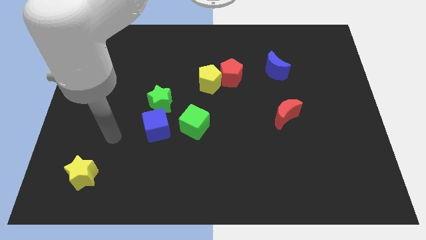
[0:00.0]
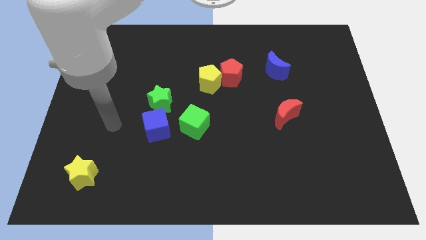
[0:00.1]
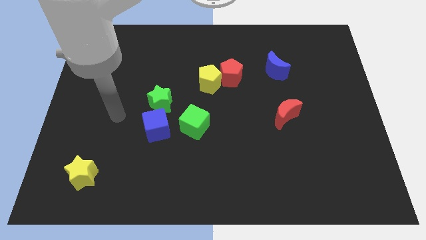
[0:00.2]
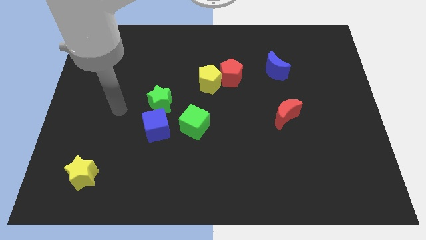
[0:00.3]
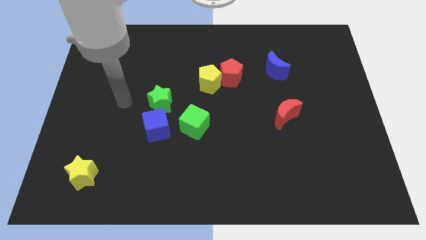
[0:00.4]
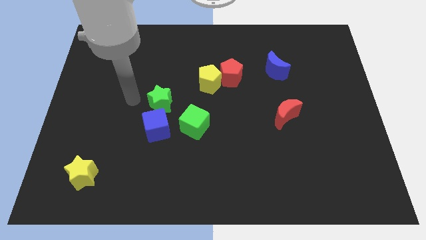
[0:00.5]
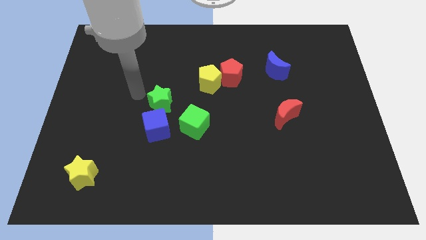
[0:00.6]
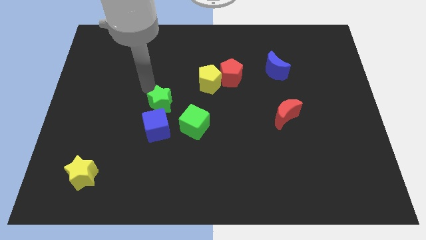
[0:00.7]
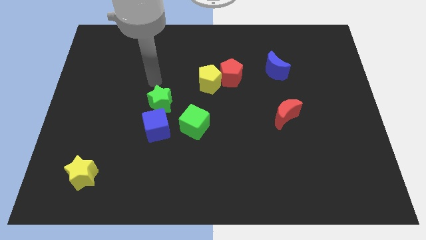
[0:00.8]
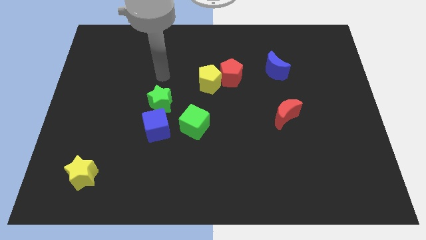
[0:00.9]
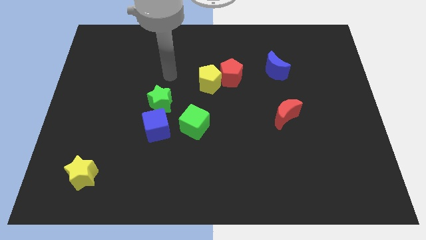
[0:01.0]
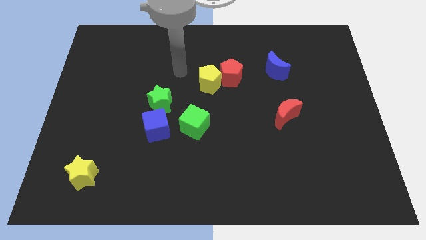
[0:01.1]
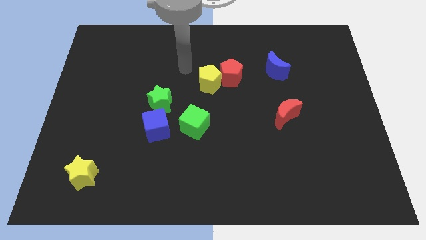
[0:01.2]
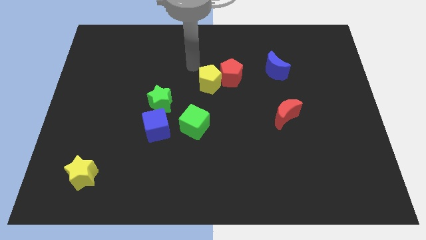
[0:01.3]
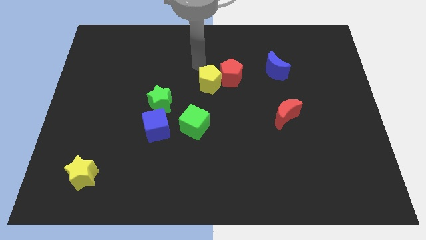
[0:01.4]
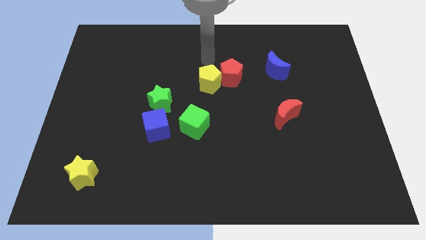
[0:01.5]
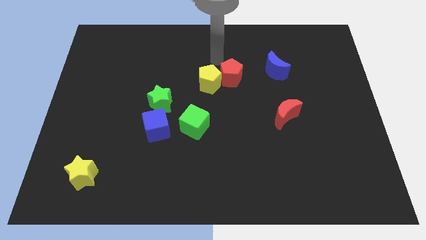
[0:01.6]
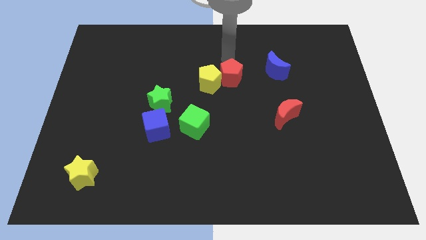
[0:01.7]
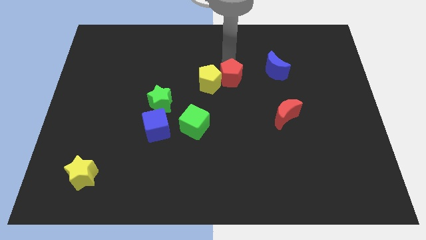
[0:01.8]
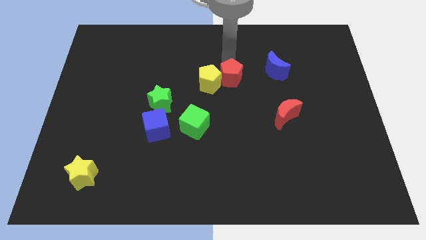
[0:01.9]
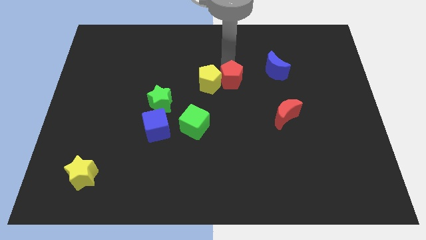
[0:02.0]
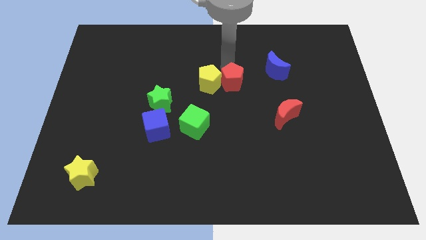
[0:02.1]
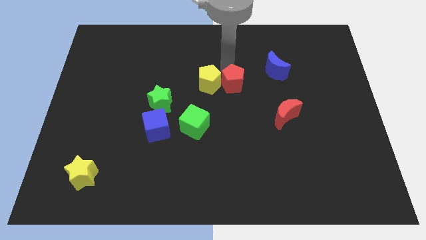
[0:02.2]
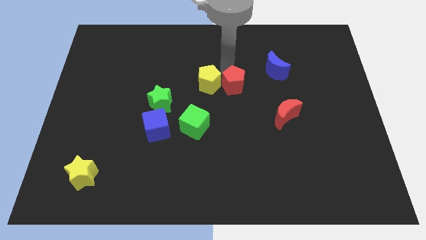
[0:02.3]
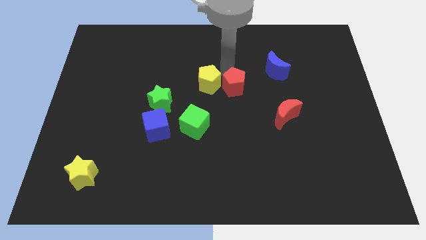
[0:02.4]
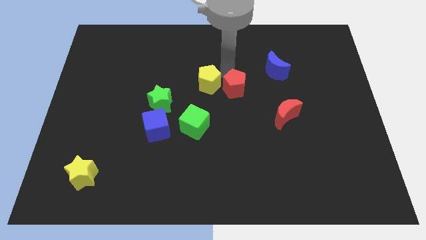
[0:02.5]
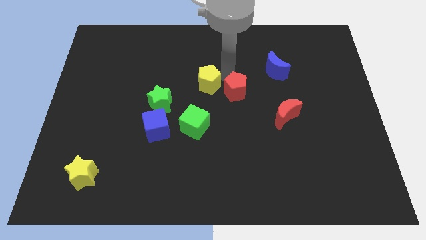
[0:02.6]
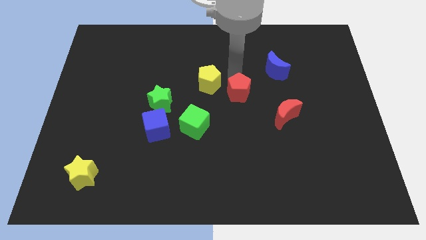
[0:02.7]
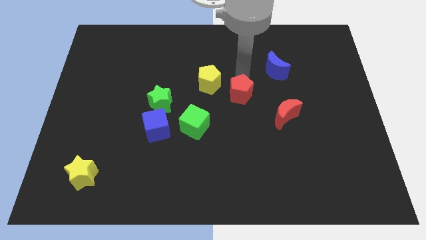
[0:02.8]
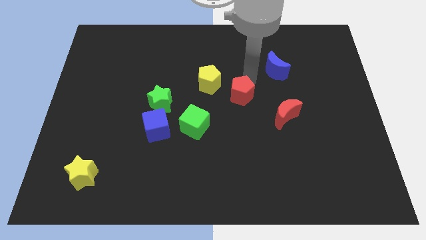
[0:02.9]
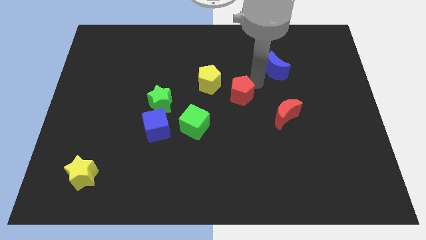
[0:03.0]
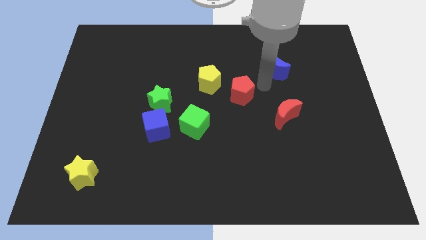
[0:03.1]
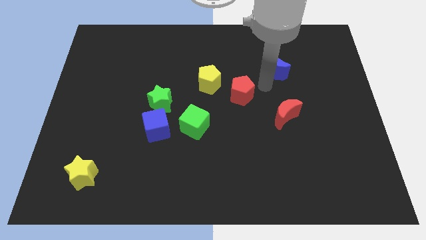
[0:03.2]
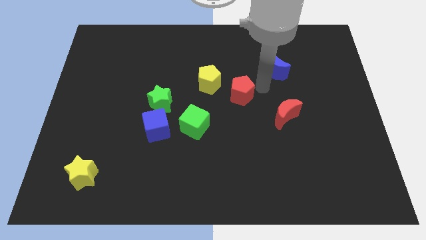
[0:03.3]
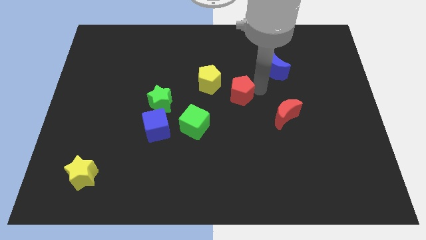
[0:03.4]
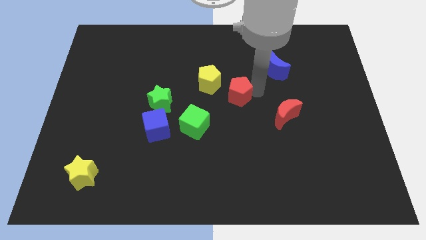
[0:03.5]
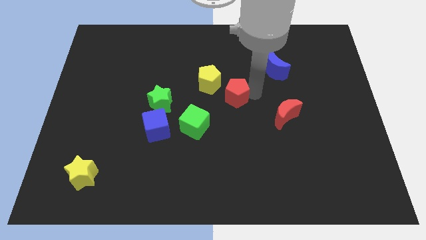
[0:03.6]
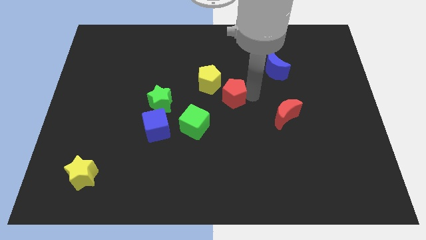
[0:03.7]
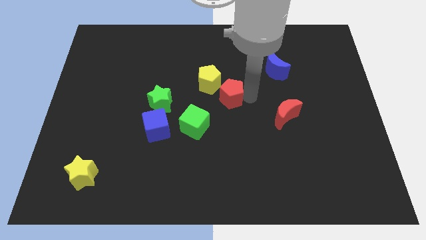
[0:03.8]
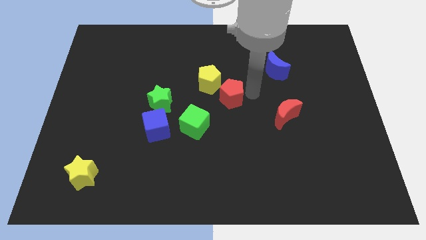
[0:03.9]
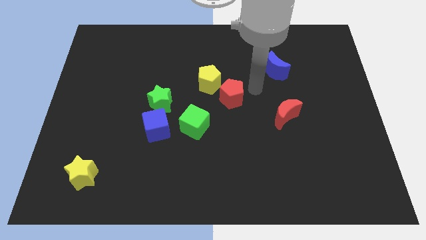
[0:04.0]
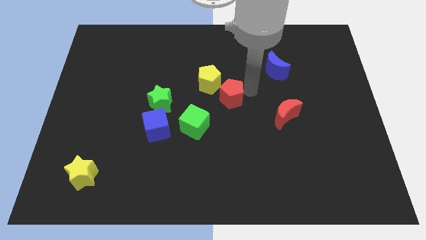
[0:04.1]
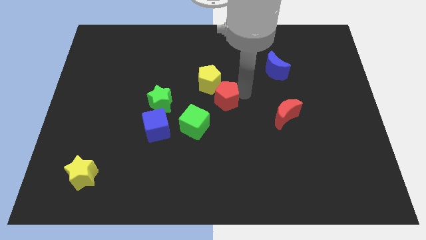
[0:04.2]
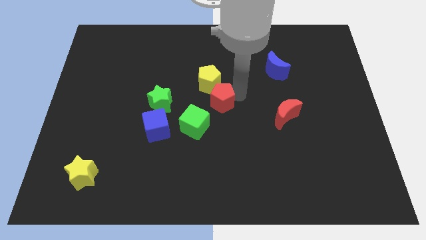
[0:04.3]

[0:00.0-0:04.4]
slide the red pentagon diagonally down and to the left a bit

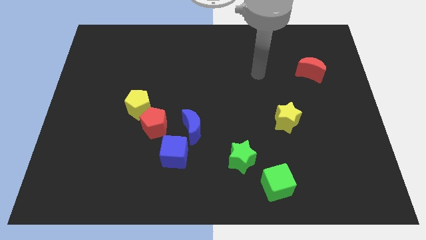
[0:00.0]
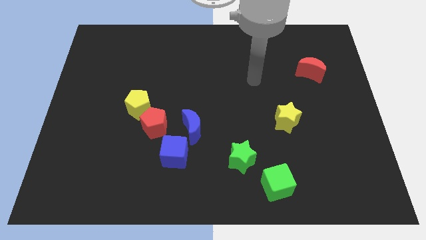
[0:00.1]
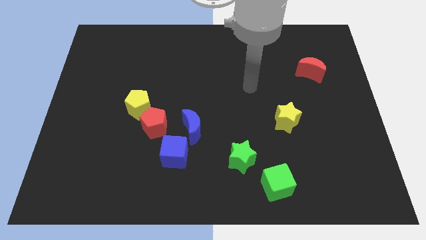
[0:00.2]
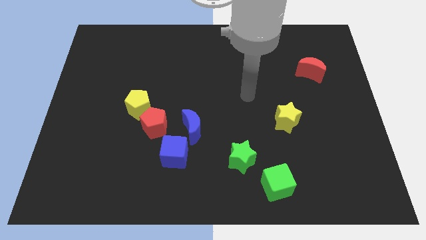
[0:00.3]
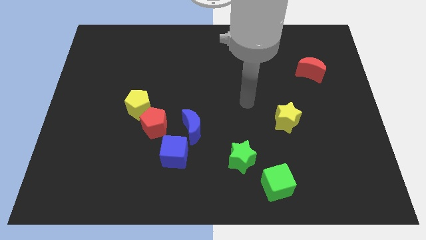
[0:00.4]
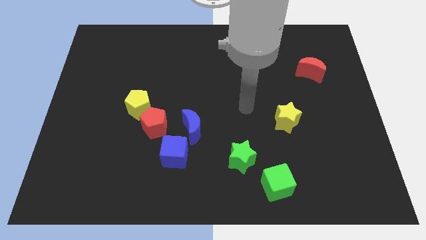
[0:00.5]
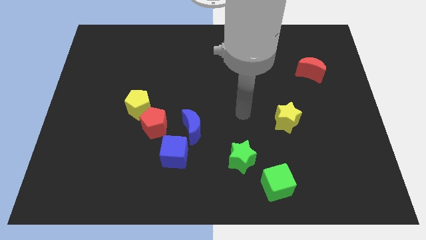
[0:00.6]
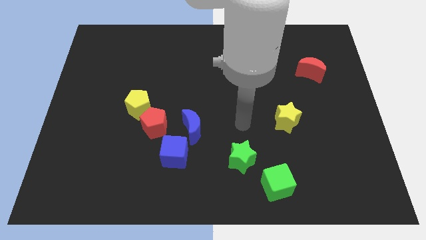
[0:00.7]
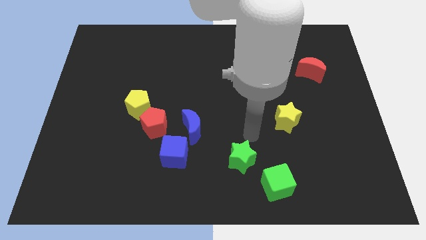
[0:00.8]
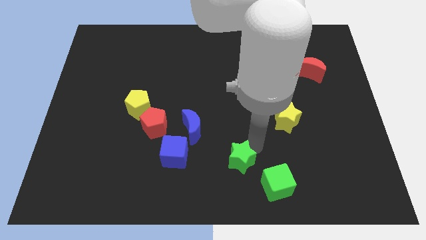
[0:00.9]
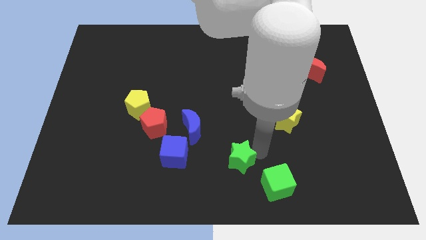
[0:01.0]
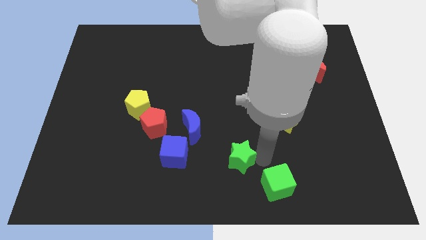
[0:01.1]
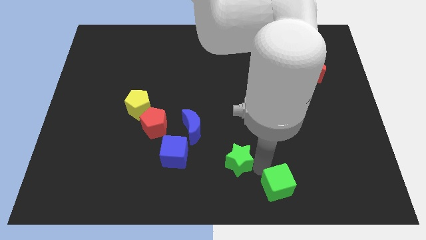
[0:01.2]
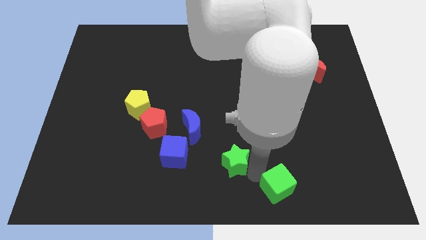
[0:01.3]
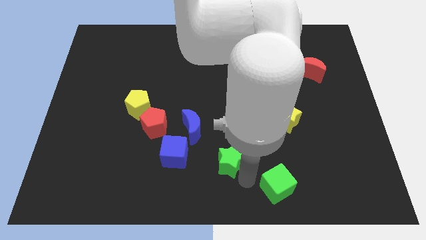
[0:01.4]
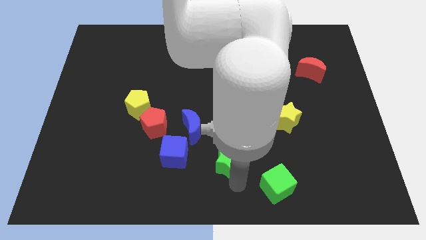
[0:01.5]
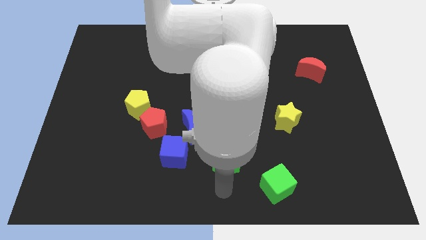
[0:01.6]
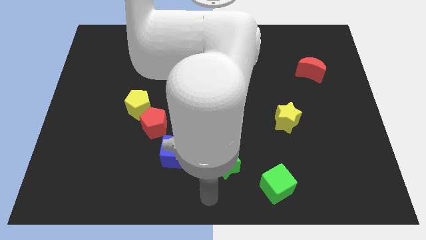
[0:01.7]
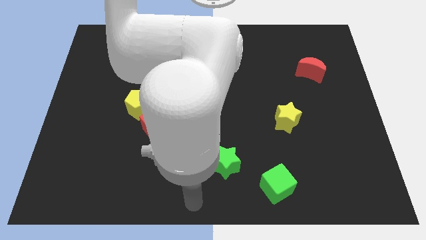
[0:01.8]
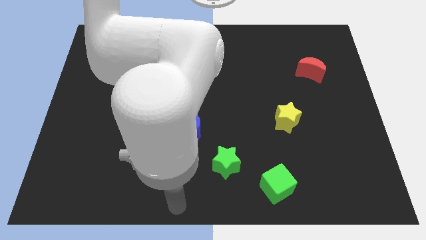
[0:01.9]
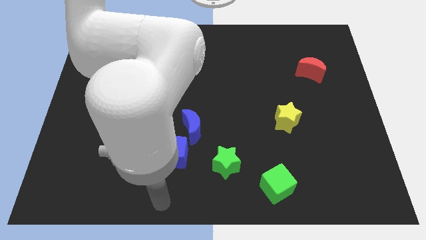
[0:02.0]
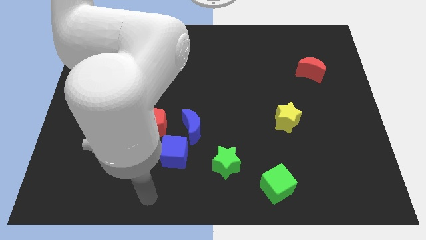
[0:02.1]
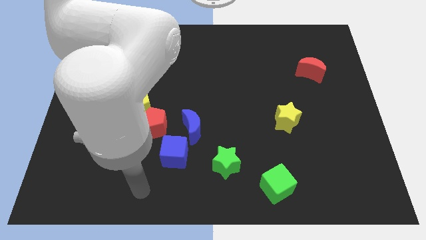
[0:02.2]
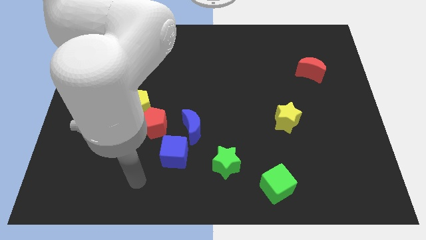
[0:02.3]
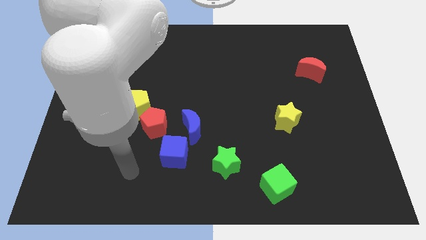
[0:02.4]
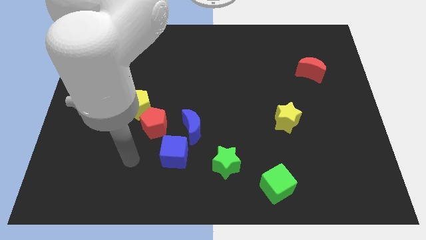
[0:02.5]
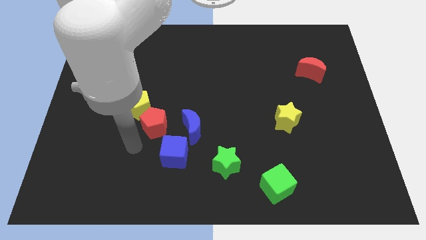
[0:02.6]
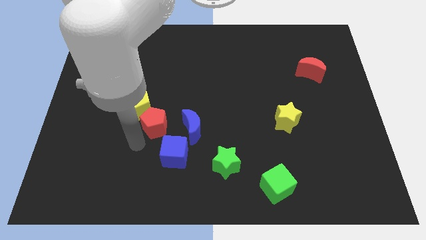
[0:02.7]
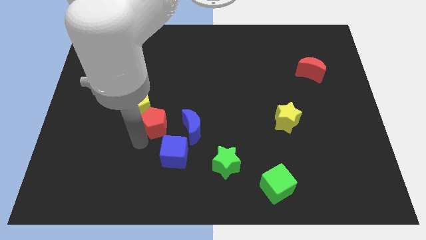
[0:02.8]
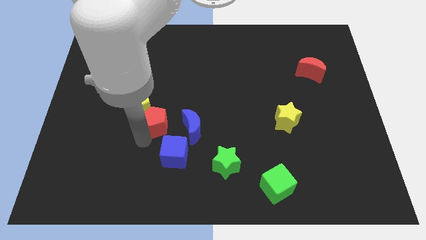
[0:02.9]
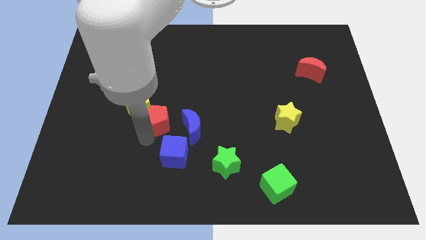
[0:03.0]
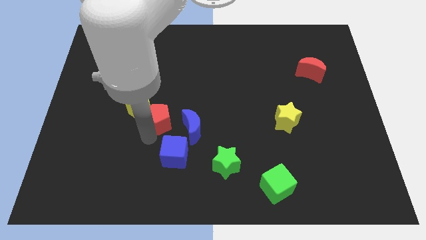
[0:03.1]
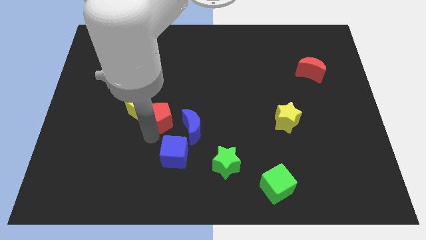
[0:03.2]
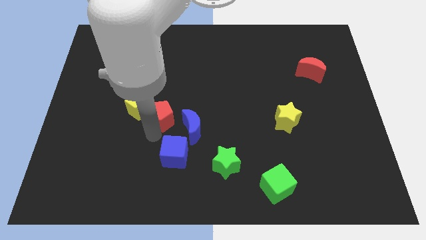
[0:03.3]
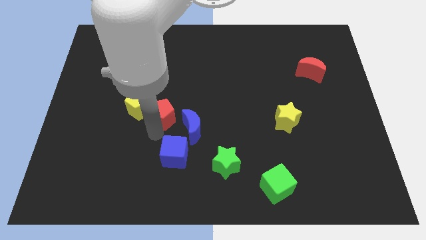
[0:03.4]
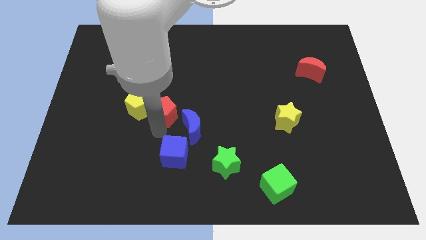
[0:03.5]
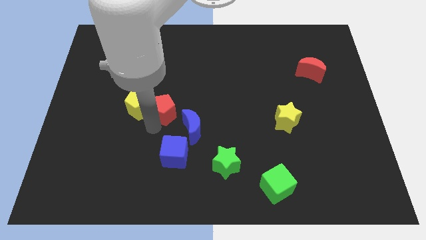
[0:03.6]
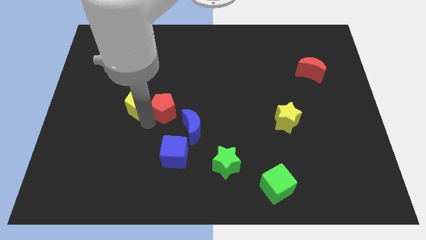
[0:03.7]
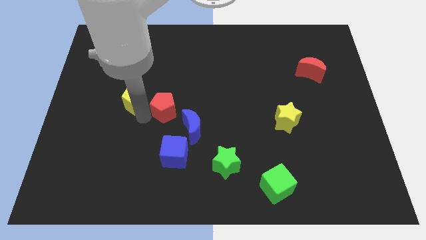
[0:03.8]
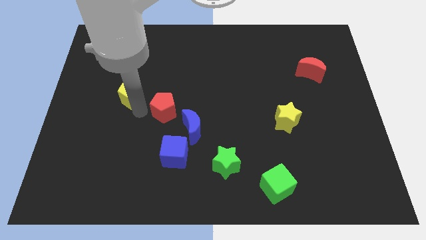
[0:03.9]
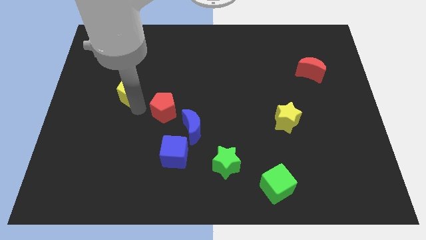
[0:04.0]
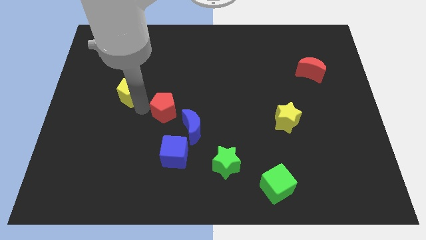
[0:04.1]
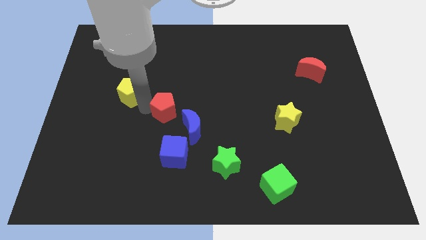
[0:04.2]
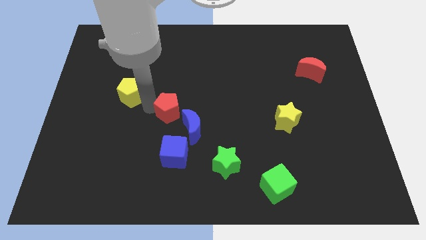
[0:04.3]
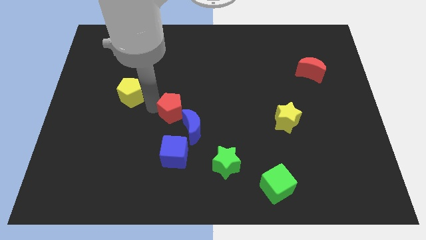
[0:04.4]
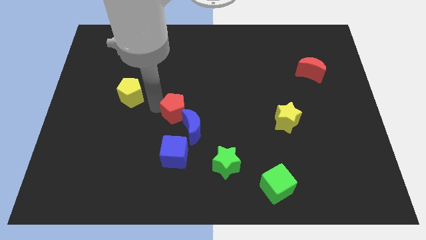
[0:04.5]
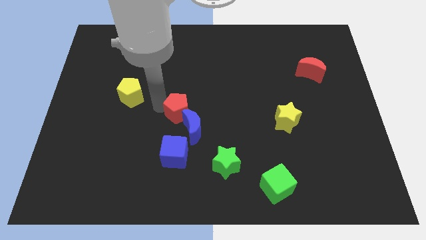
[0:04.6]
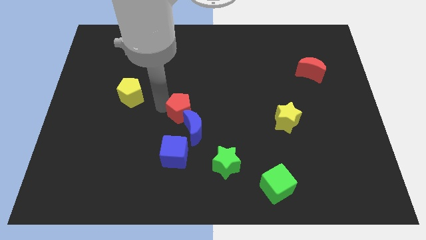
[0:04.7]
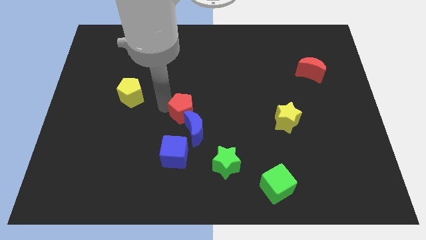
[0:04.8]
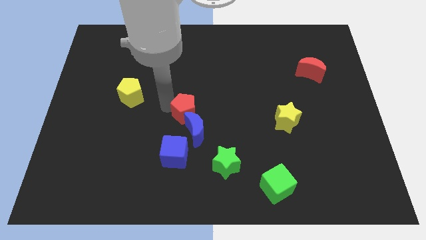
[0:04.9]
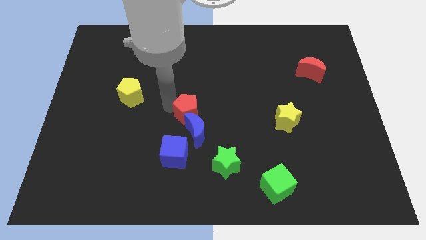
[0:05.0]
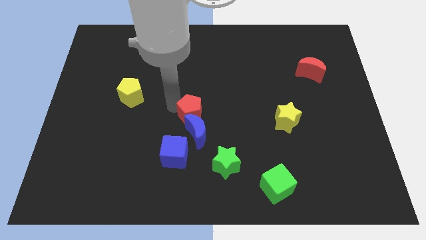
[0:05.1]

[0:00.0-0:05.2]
slightly move the red pentagon to the right
